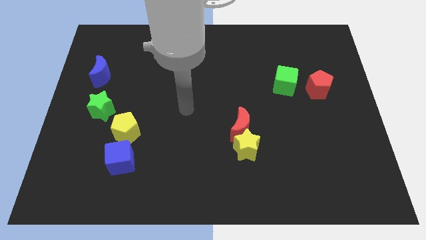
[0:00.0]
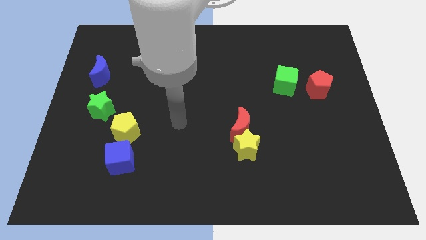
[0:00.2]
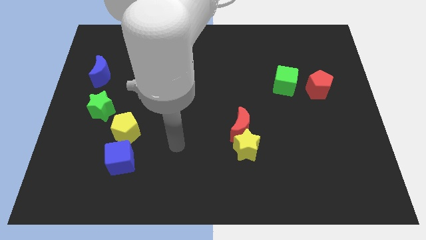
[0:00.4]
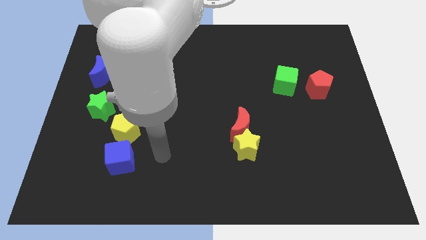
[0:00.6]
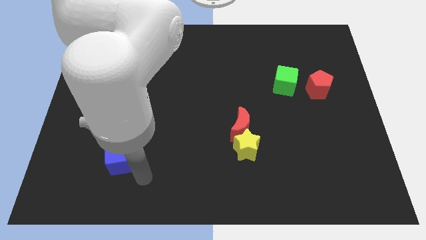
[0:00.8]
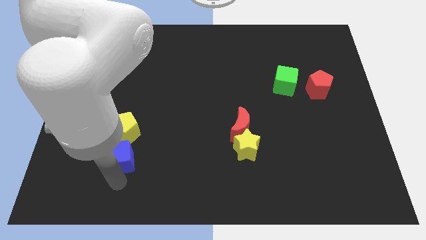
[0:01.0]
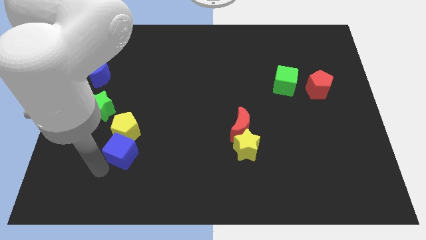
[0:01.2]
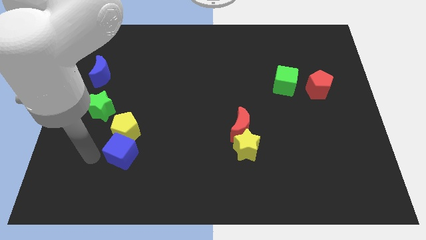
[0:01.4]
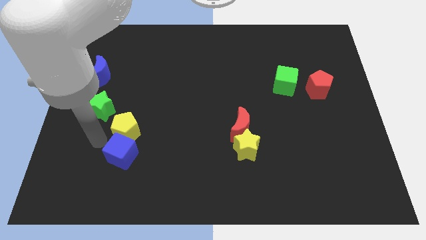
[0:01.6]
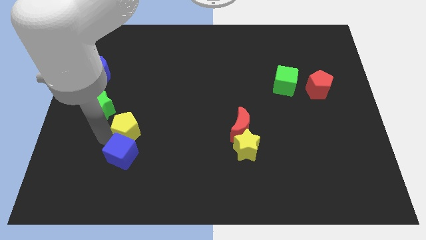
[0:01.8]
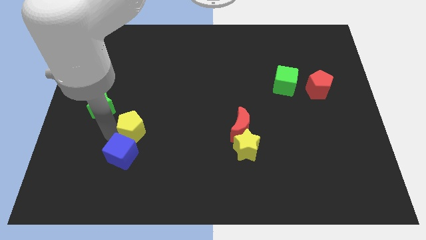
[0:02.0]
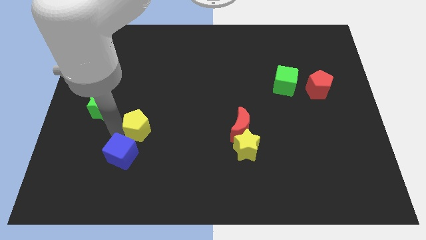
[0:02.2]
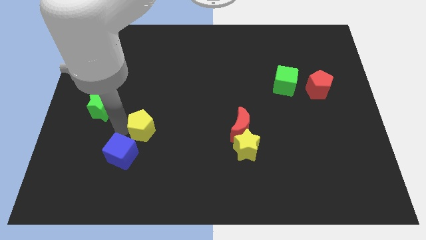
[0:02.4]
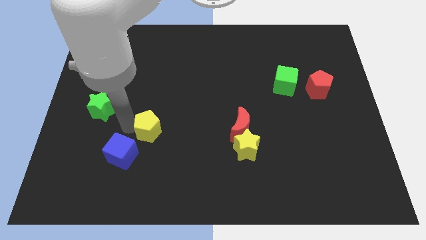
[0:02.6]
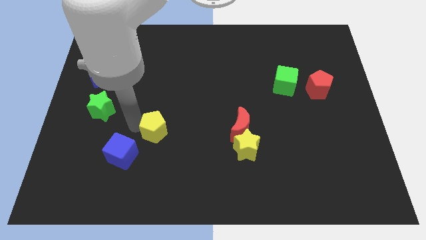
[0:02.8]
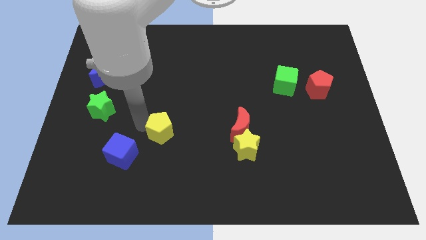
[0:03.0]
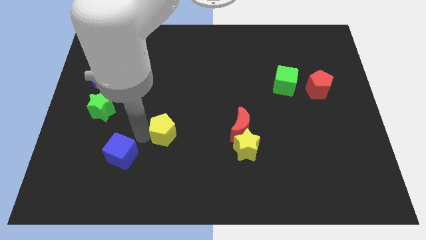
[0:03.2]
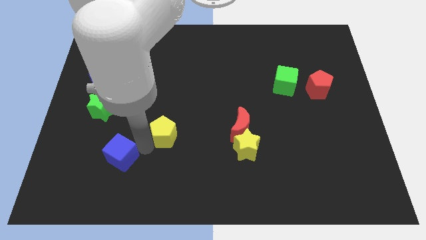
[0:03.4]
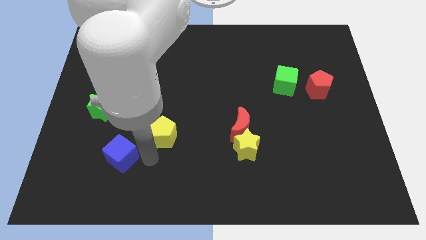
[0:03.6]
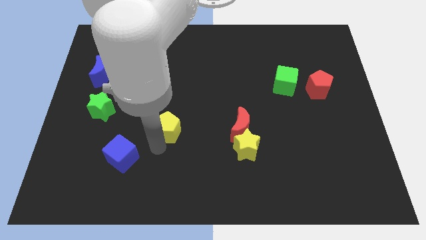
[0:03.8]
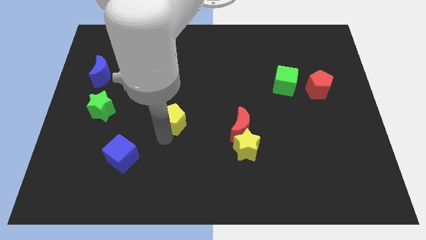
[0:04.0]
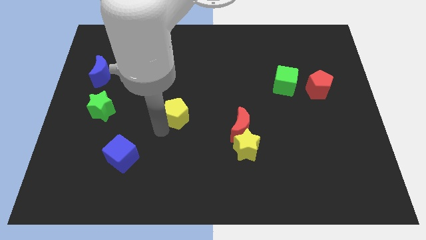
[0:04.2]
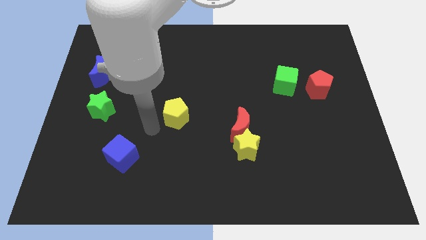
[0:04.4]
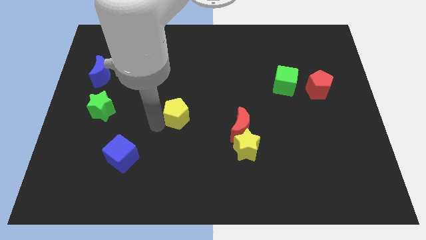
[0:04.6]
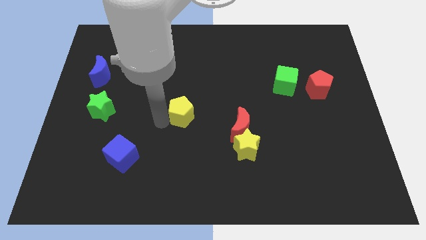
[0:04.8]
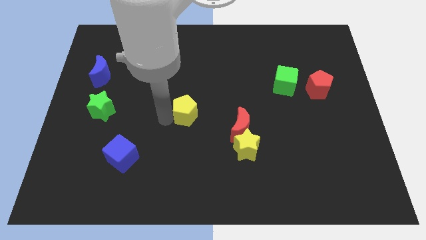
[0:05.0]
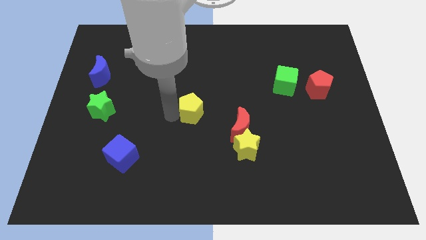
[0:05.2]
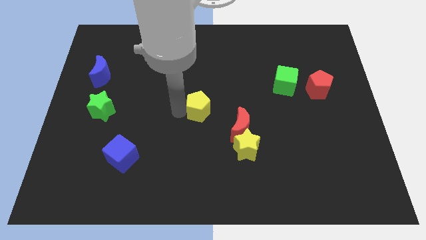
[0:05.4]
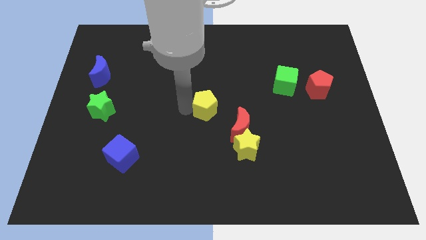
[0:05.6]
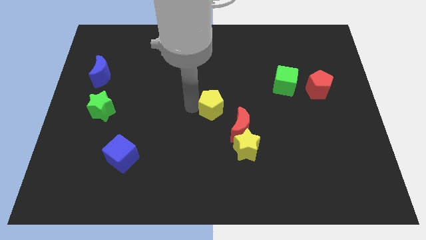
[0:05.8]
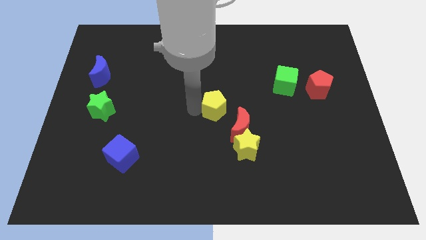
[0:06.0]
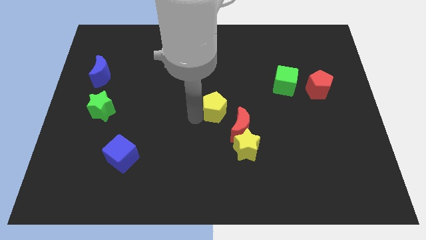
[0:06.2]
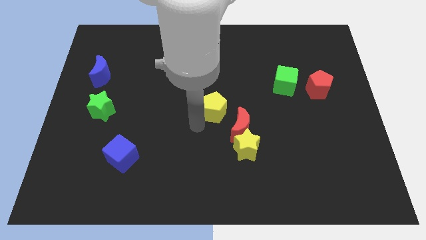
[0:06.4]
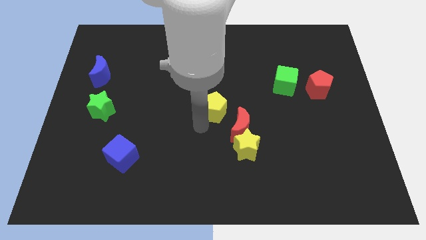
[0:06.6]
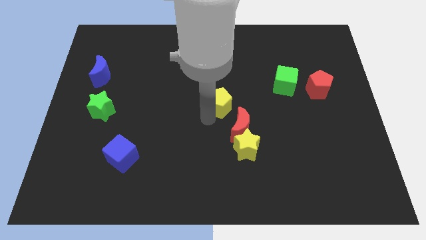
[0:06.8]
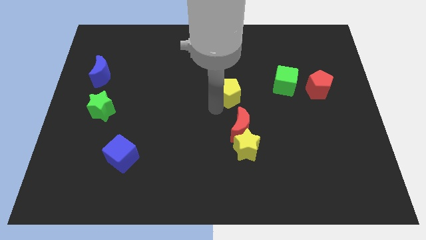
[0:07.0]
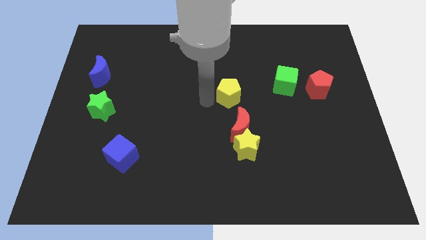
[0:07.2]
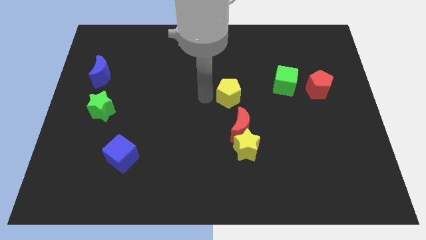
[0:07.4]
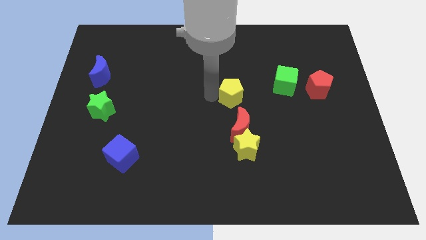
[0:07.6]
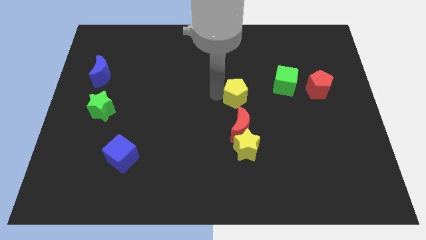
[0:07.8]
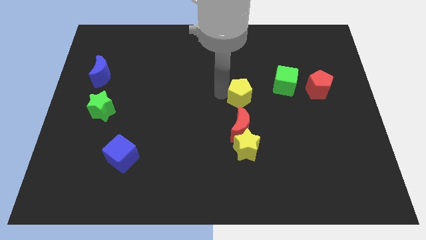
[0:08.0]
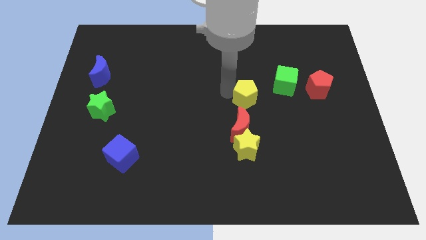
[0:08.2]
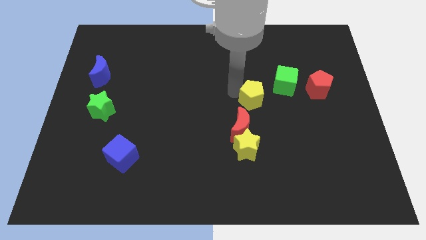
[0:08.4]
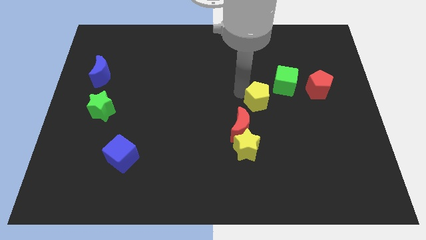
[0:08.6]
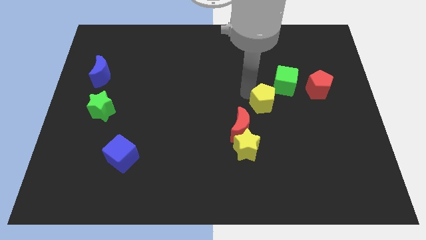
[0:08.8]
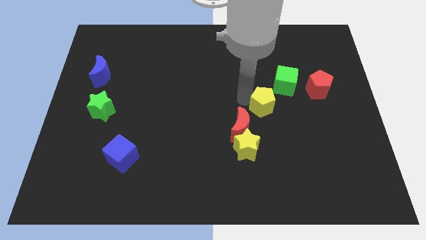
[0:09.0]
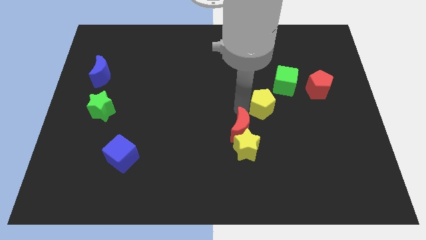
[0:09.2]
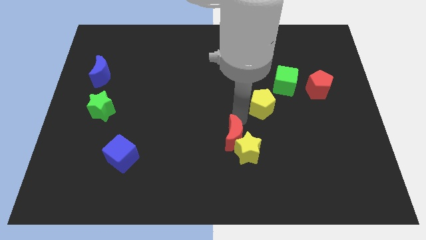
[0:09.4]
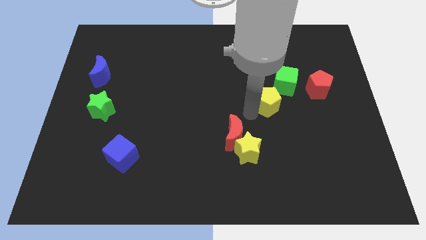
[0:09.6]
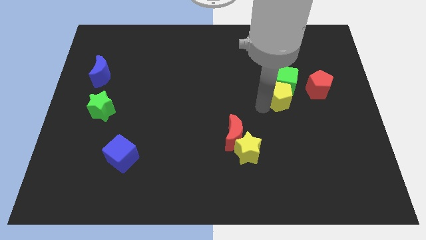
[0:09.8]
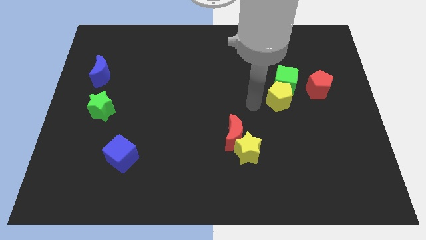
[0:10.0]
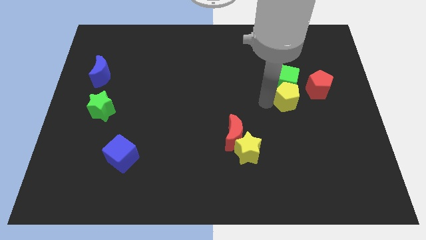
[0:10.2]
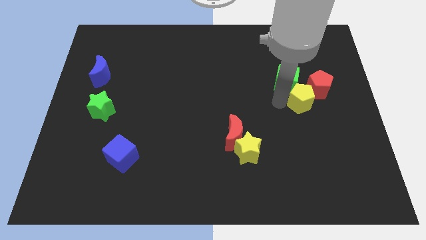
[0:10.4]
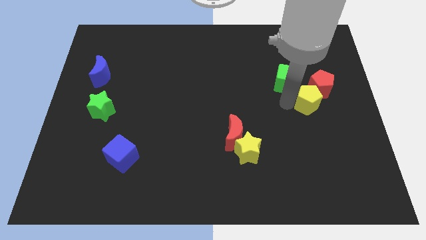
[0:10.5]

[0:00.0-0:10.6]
slide the yellow pentagon close to the red pentagon
